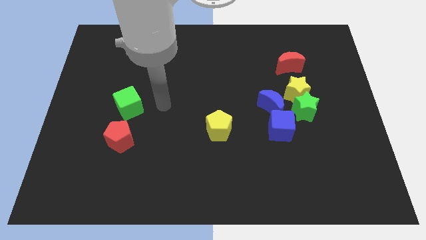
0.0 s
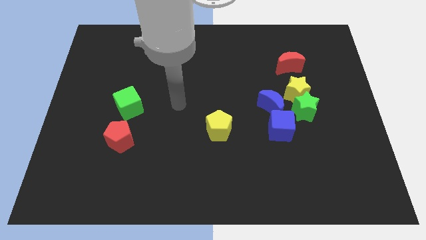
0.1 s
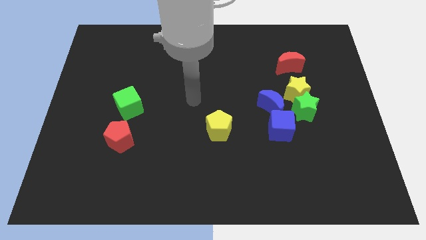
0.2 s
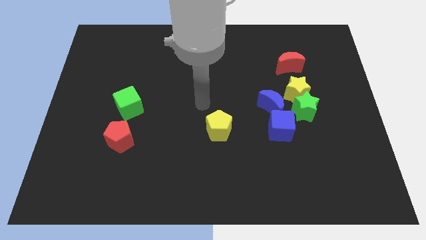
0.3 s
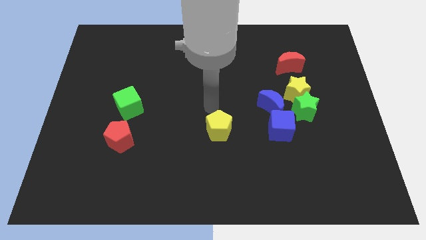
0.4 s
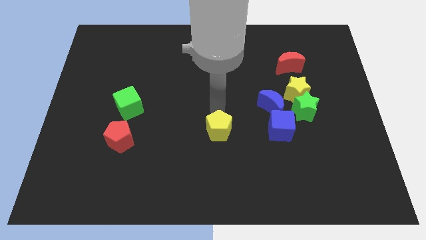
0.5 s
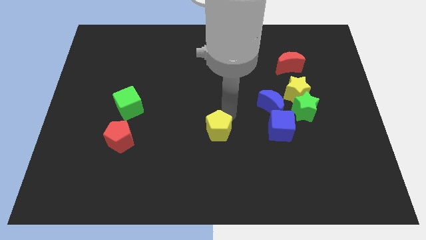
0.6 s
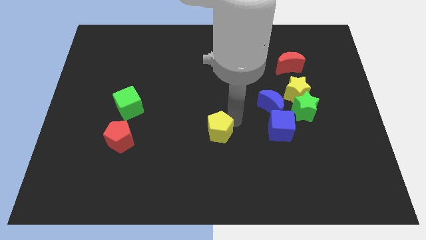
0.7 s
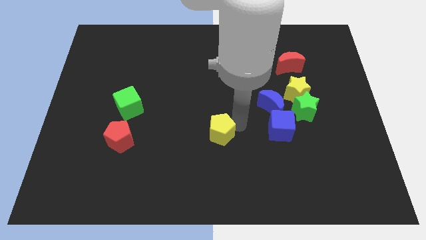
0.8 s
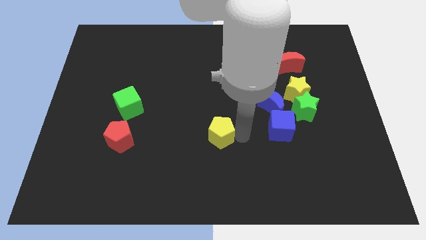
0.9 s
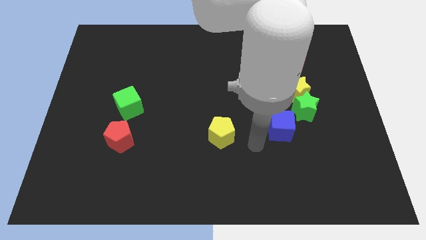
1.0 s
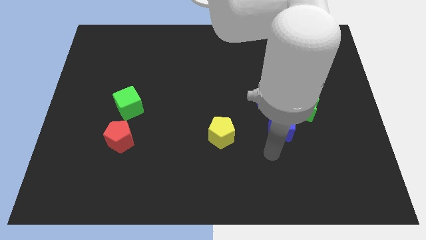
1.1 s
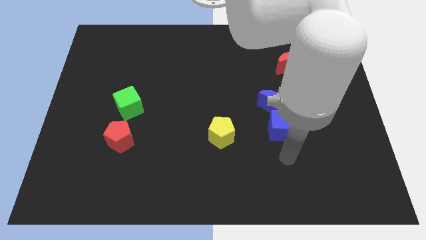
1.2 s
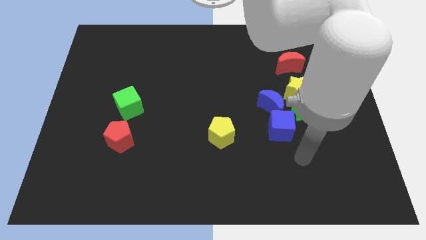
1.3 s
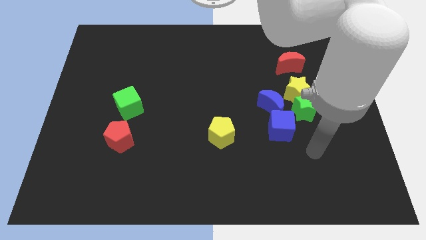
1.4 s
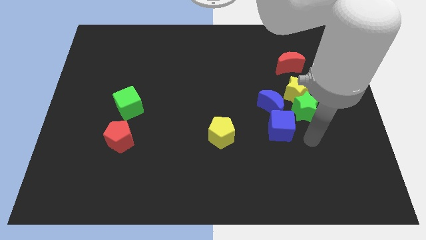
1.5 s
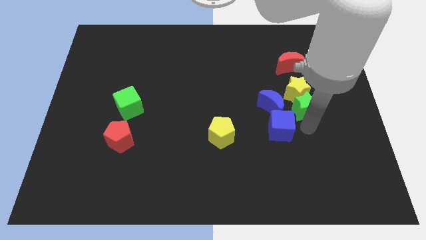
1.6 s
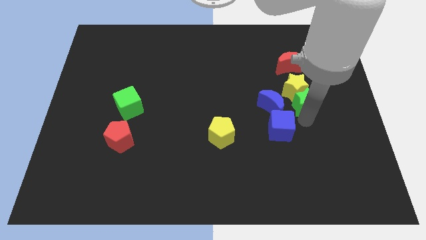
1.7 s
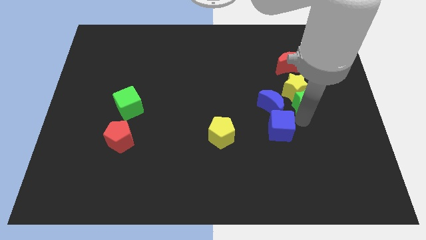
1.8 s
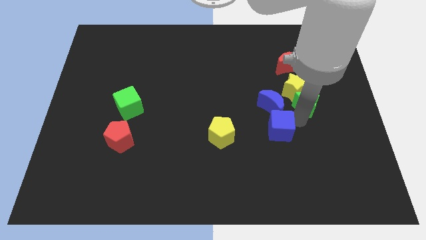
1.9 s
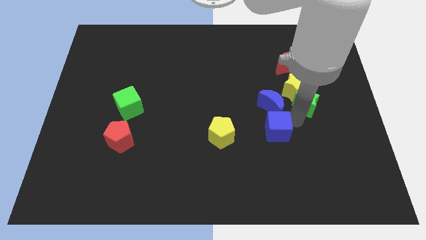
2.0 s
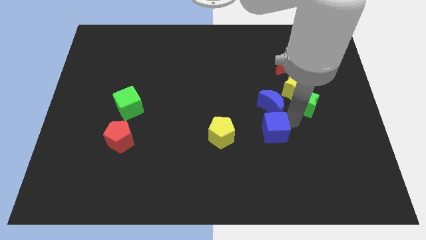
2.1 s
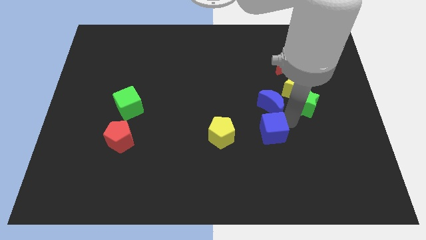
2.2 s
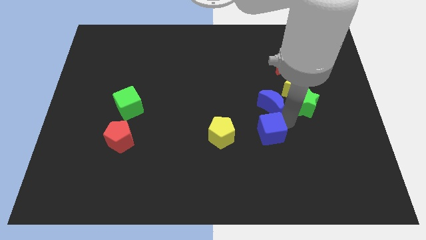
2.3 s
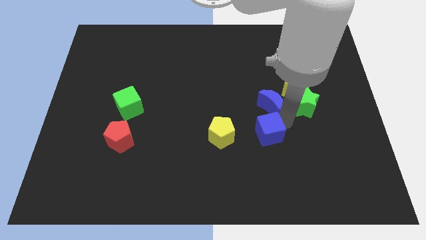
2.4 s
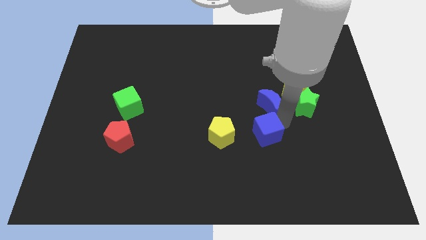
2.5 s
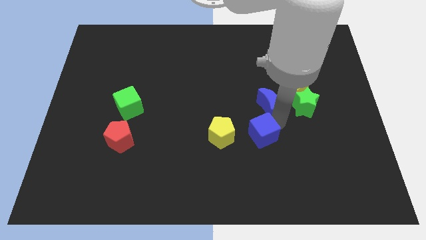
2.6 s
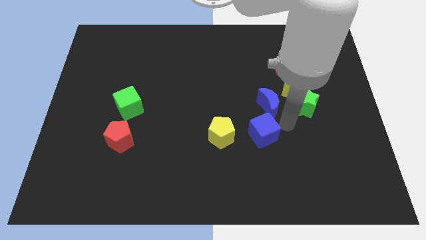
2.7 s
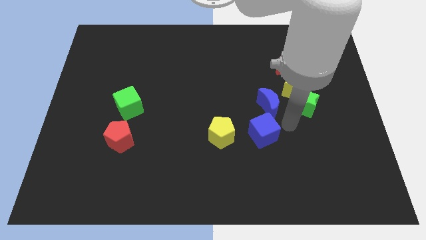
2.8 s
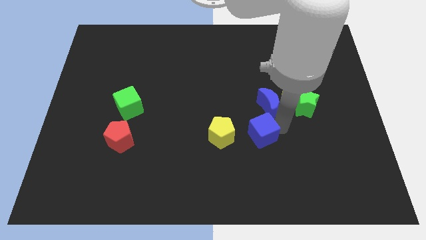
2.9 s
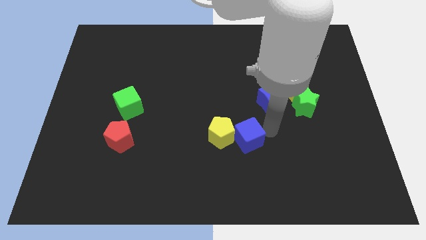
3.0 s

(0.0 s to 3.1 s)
slide the blue cube left somewhat

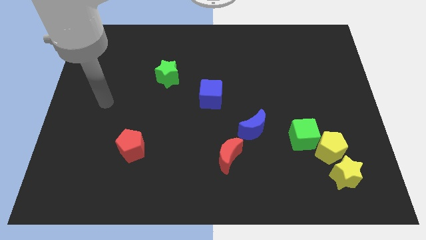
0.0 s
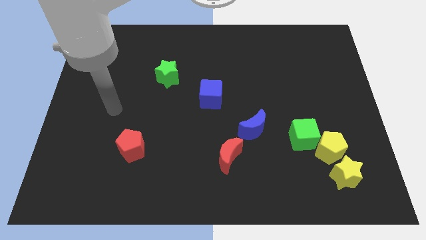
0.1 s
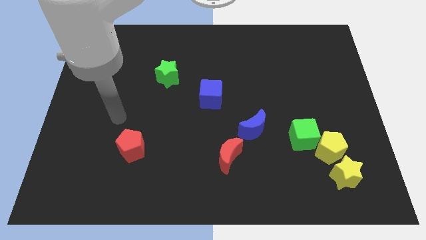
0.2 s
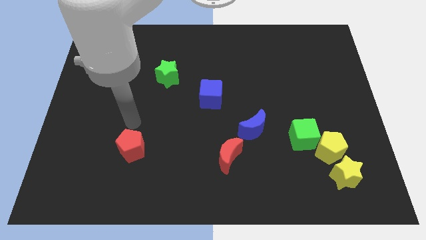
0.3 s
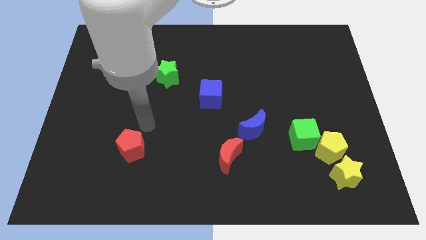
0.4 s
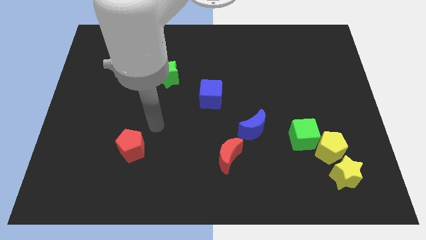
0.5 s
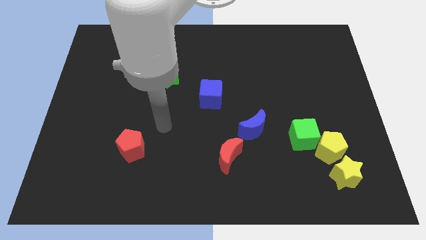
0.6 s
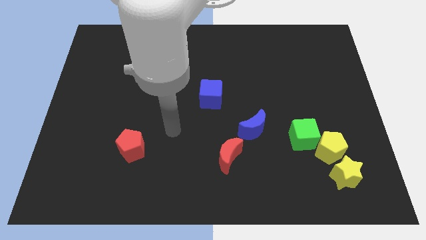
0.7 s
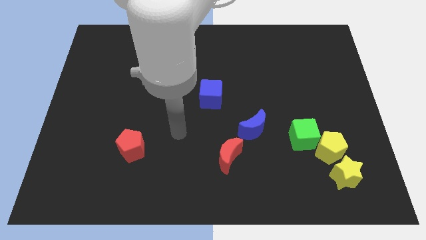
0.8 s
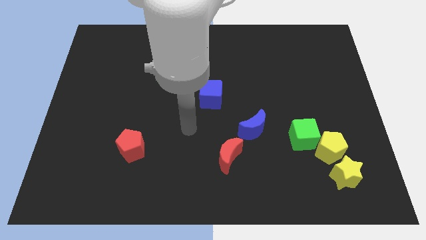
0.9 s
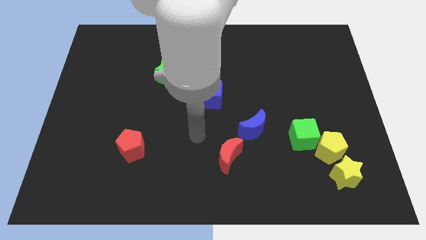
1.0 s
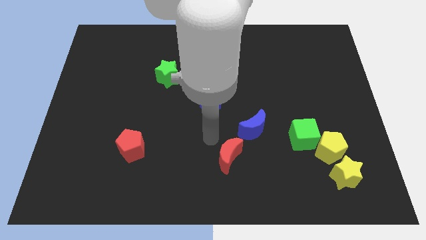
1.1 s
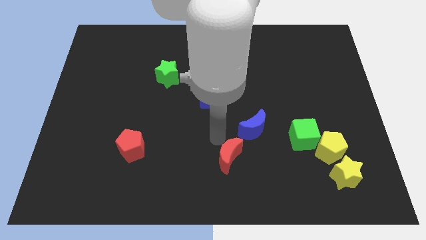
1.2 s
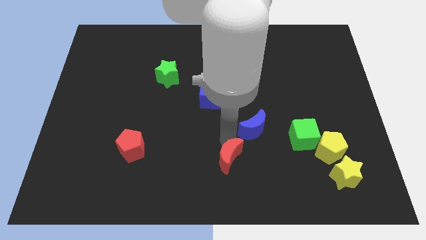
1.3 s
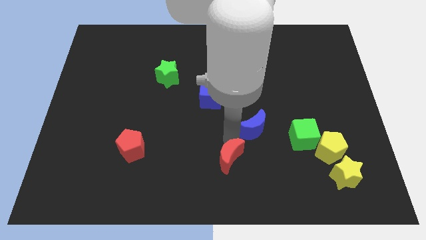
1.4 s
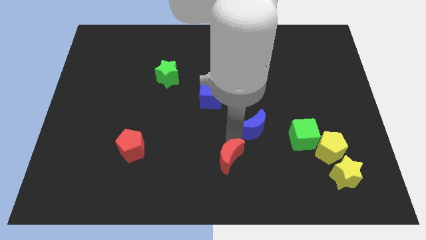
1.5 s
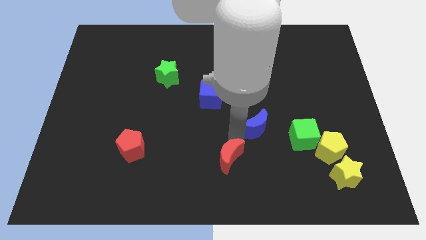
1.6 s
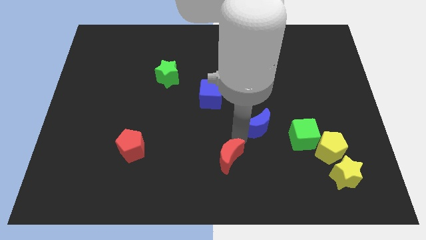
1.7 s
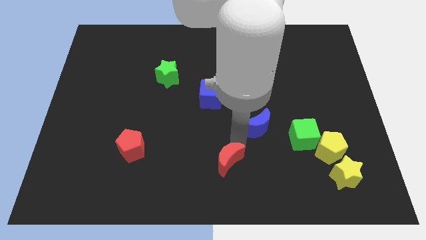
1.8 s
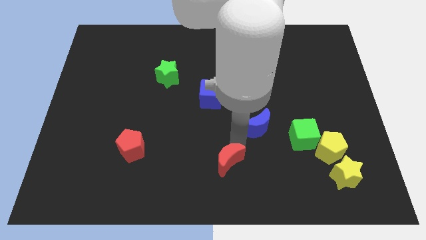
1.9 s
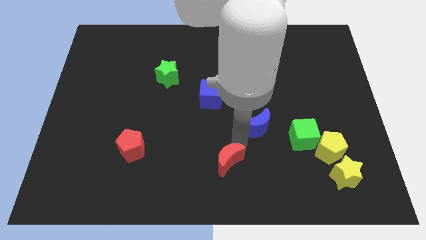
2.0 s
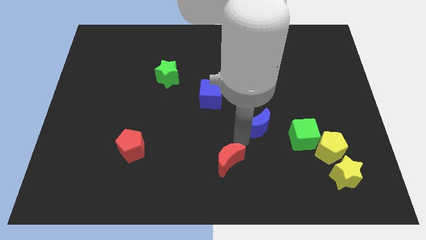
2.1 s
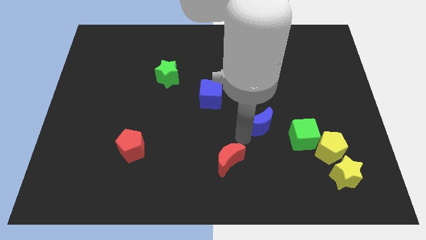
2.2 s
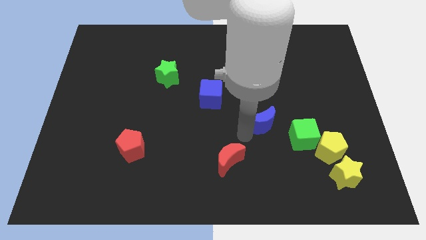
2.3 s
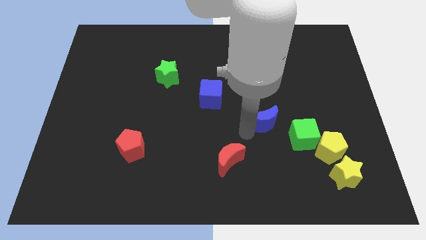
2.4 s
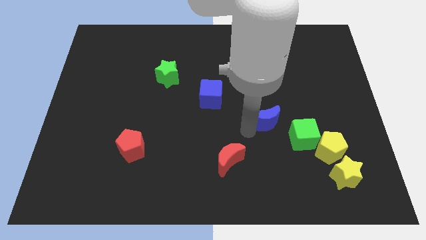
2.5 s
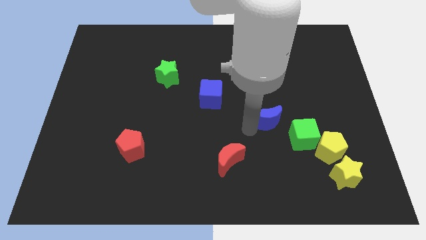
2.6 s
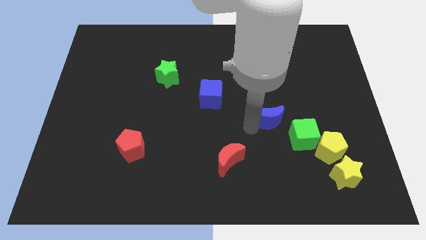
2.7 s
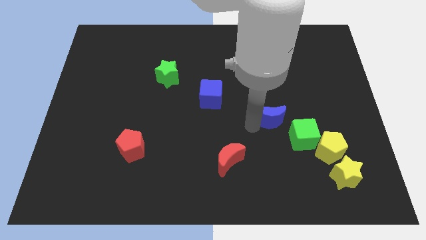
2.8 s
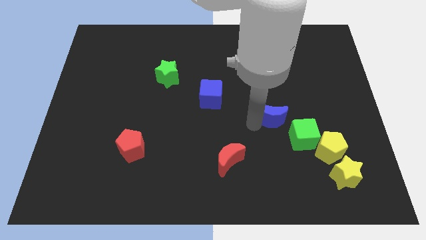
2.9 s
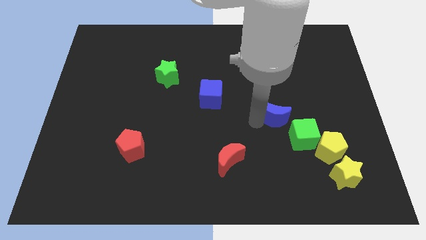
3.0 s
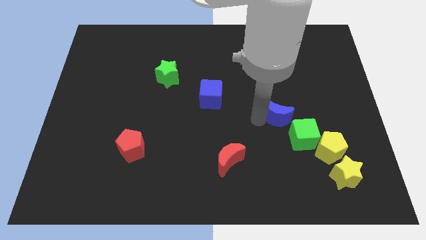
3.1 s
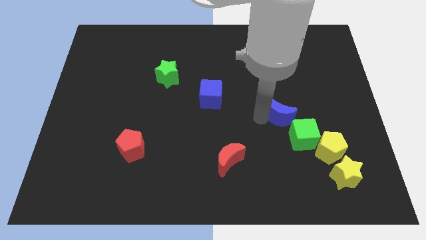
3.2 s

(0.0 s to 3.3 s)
slightly push the blue moon up and then to the right

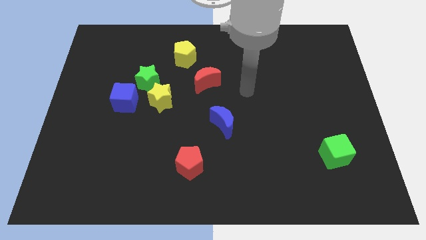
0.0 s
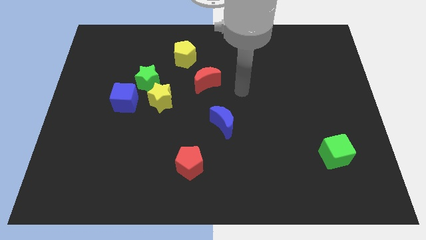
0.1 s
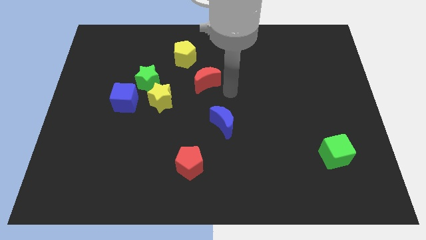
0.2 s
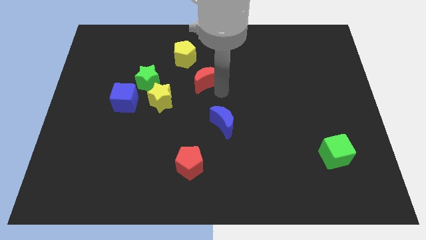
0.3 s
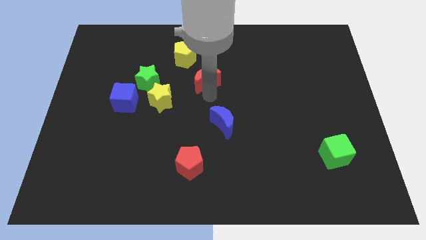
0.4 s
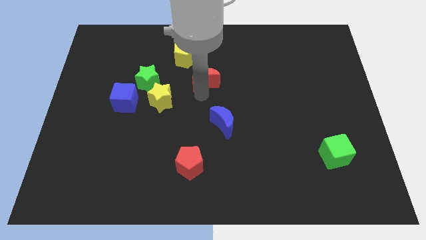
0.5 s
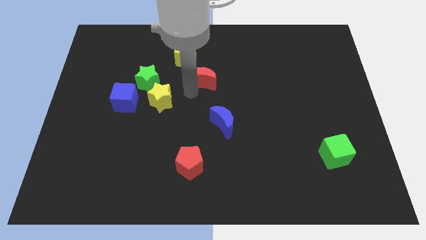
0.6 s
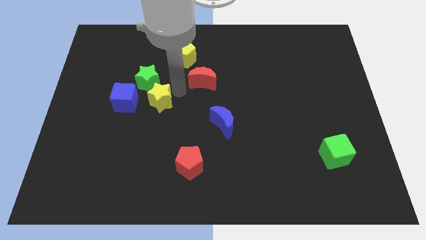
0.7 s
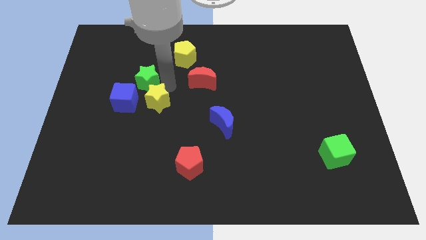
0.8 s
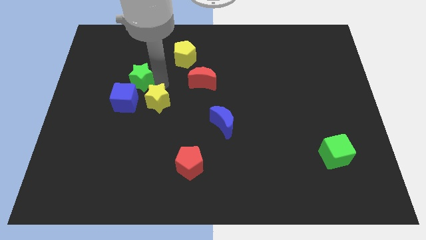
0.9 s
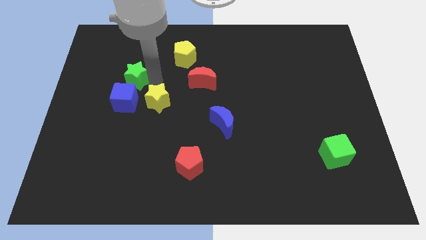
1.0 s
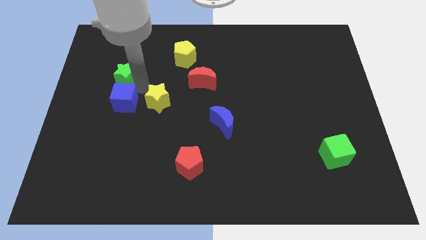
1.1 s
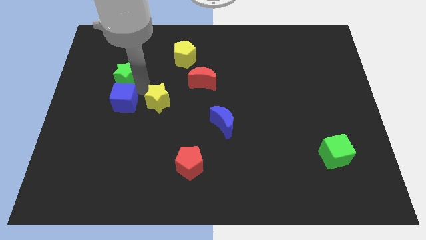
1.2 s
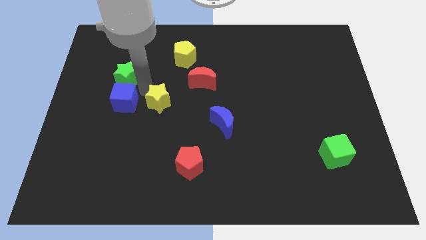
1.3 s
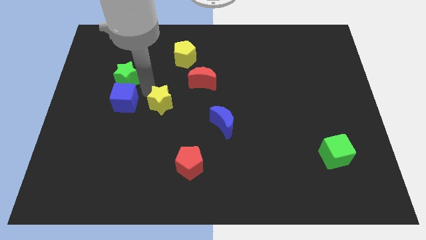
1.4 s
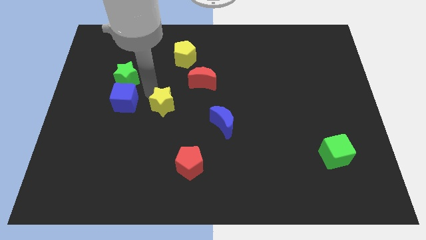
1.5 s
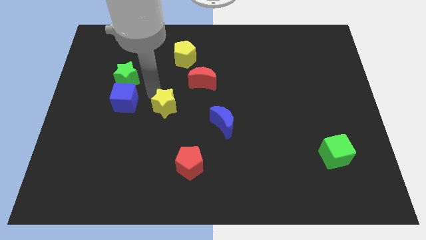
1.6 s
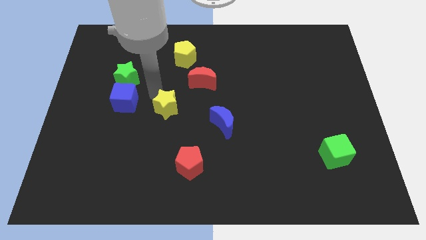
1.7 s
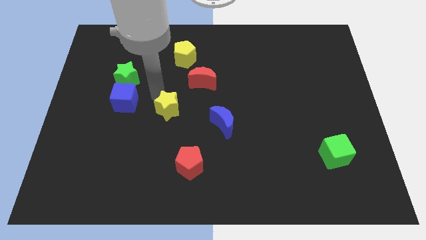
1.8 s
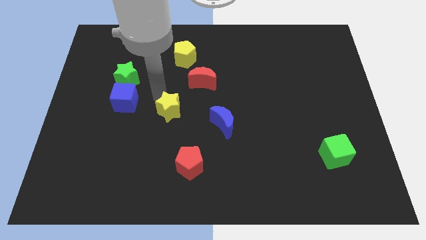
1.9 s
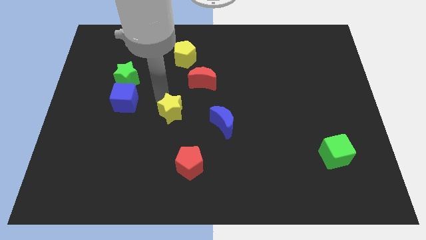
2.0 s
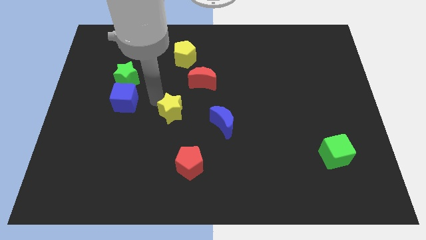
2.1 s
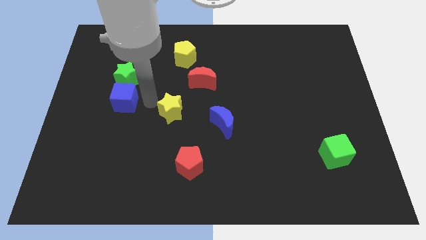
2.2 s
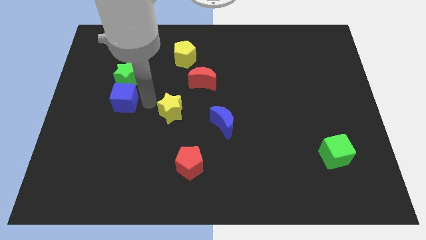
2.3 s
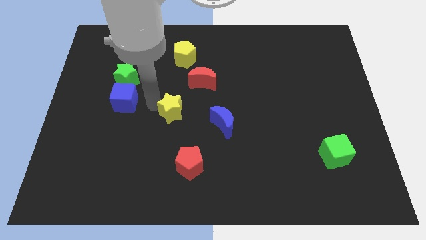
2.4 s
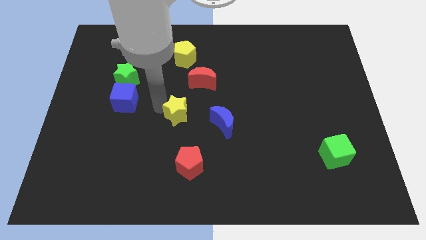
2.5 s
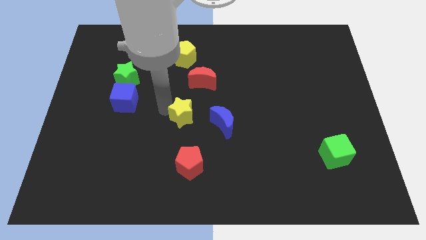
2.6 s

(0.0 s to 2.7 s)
slightly move the yellow star downwards and then to the right
